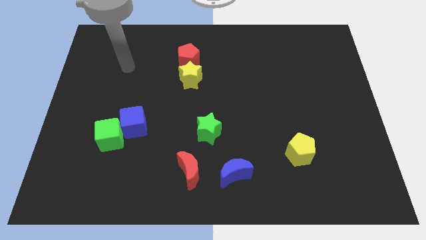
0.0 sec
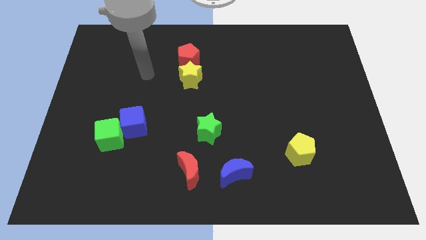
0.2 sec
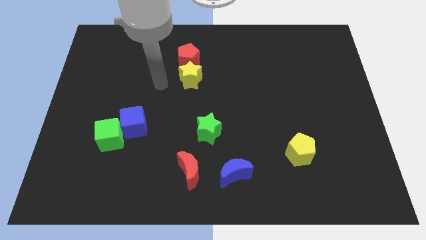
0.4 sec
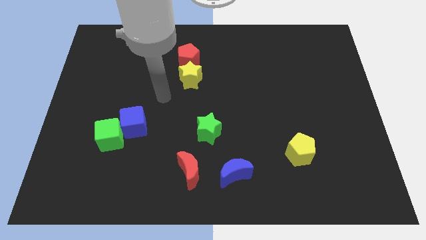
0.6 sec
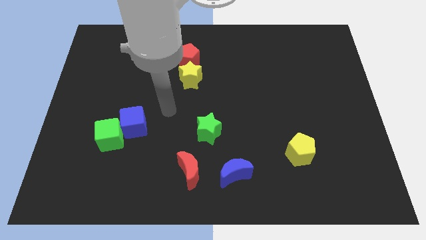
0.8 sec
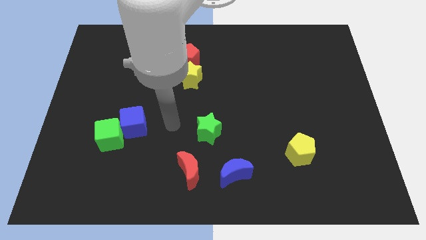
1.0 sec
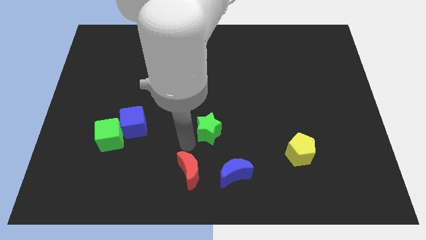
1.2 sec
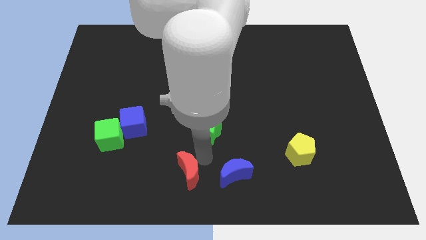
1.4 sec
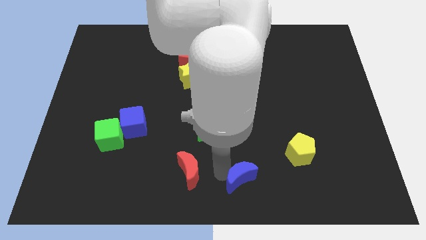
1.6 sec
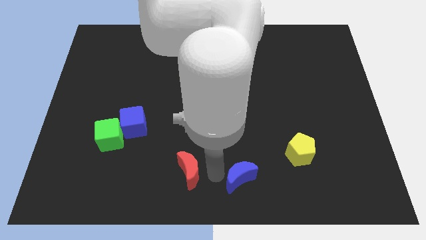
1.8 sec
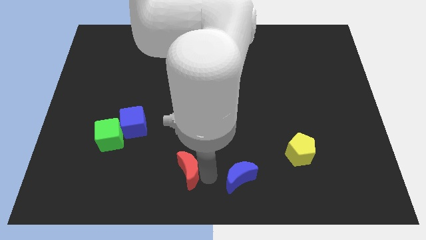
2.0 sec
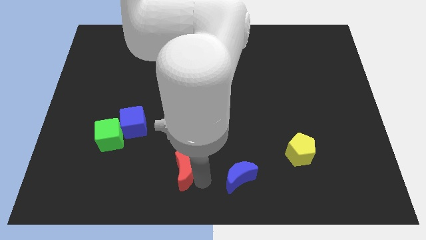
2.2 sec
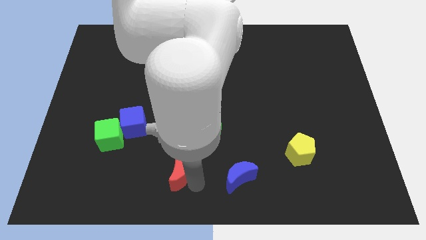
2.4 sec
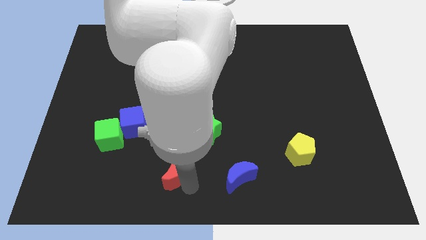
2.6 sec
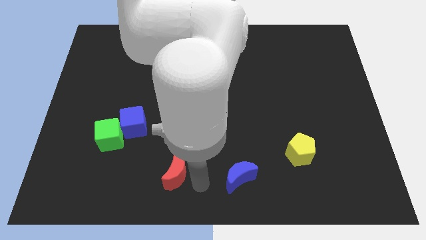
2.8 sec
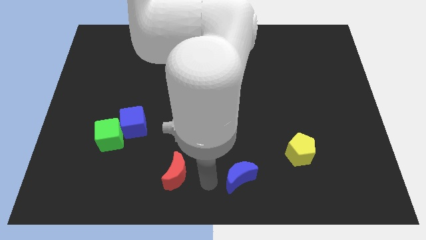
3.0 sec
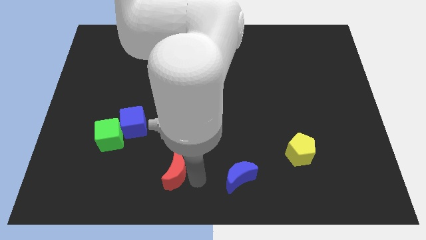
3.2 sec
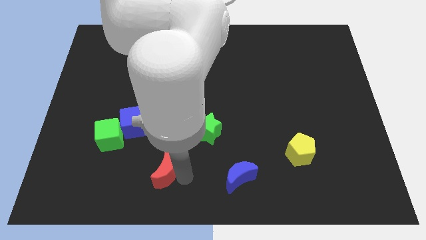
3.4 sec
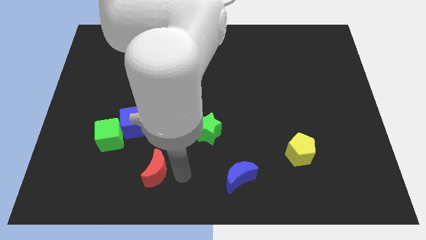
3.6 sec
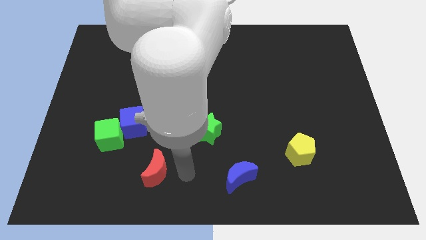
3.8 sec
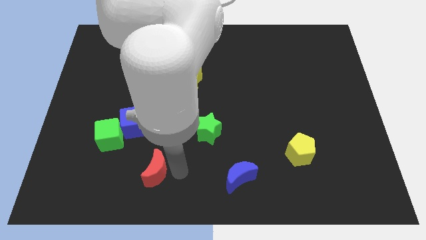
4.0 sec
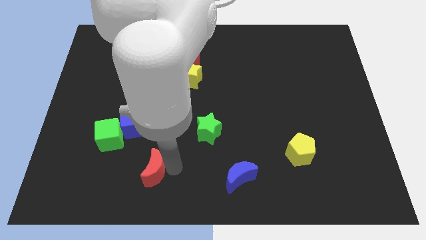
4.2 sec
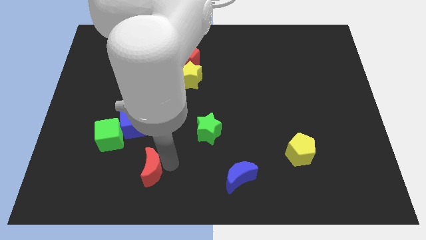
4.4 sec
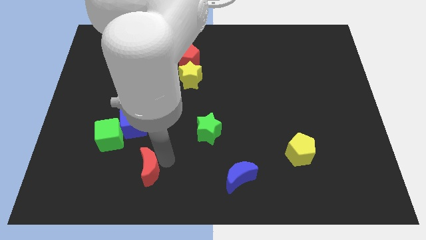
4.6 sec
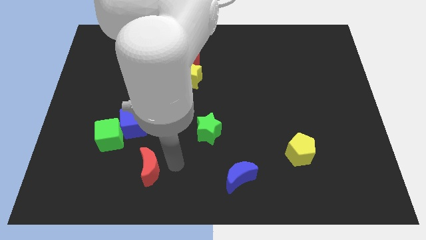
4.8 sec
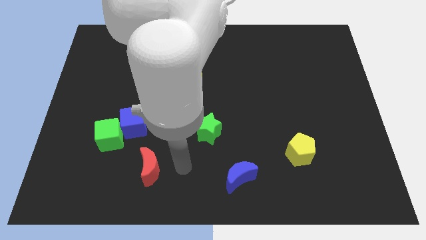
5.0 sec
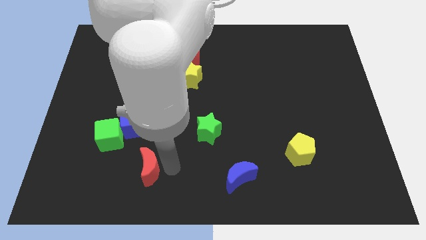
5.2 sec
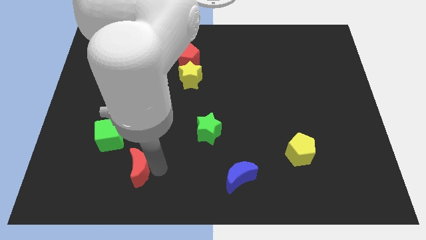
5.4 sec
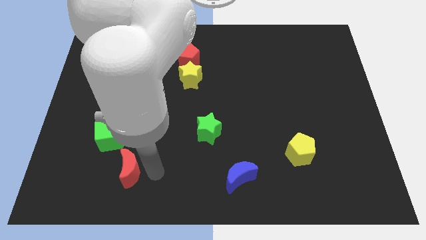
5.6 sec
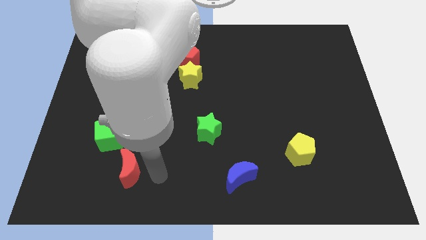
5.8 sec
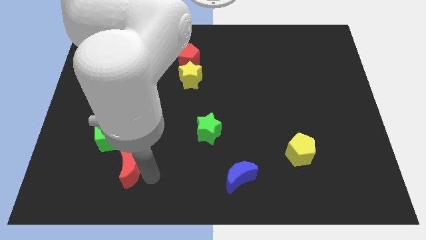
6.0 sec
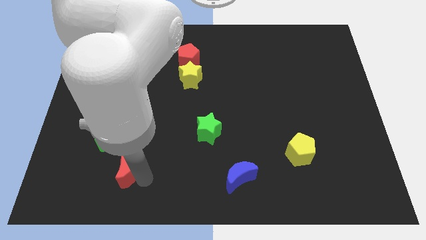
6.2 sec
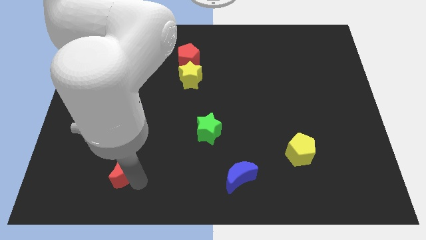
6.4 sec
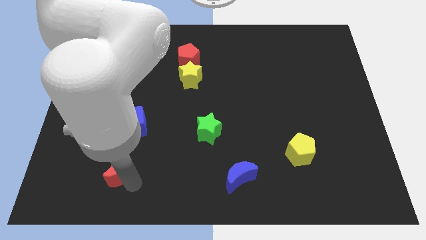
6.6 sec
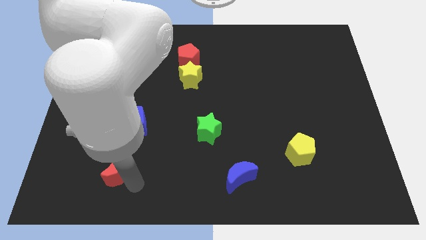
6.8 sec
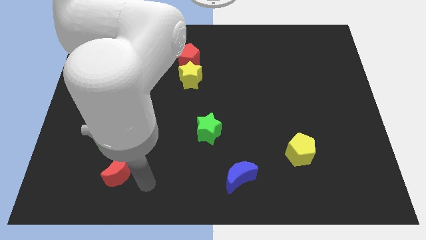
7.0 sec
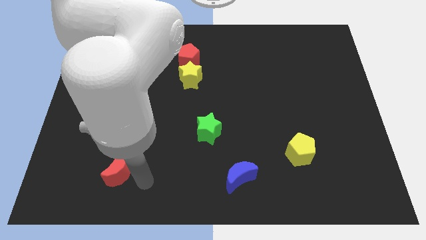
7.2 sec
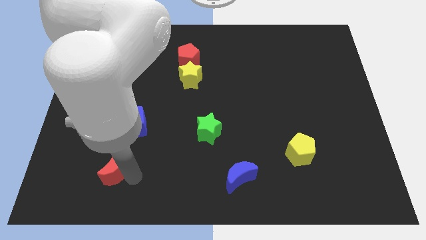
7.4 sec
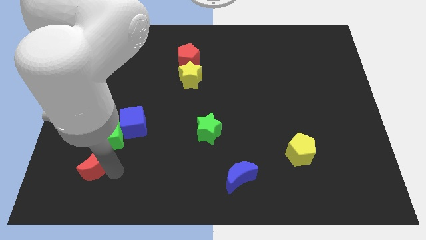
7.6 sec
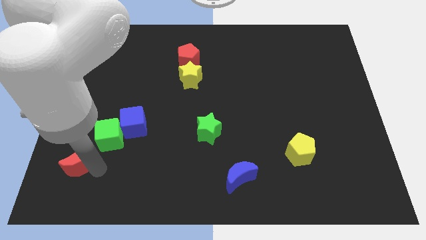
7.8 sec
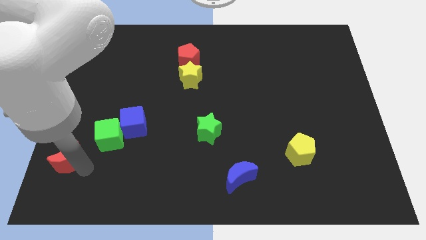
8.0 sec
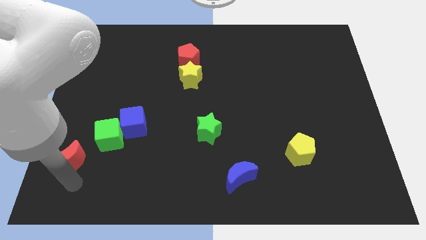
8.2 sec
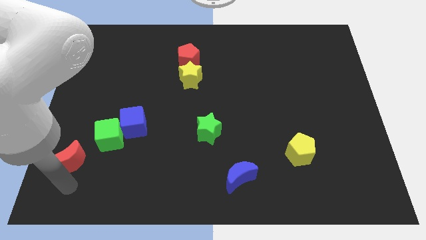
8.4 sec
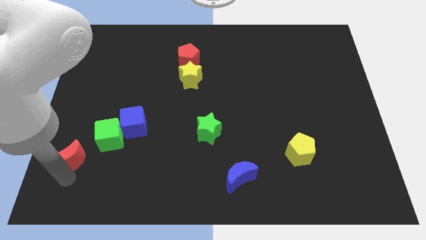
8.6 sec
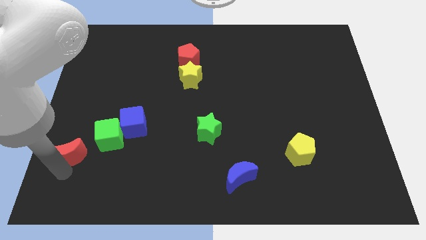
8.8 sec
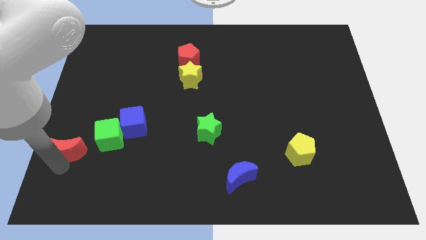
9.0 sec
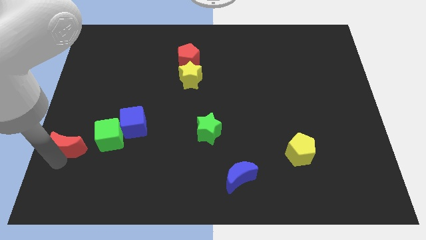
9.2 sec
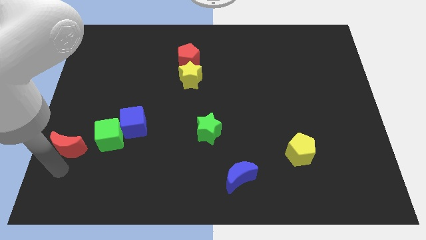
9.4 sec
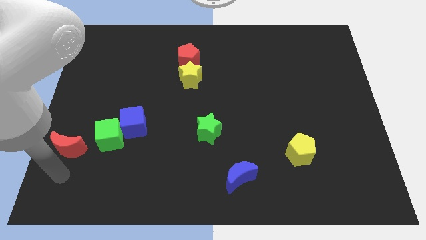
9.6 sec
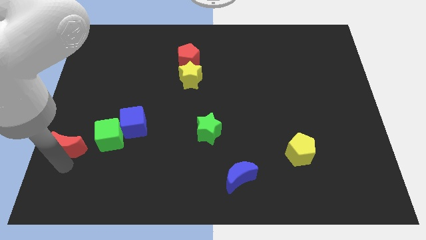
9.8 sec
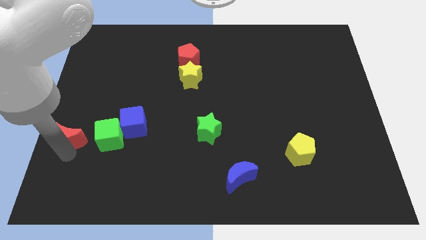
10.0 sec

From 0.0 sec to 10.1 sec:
move the red moon to the left side

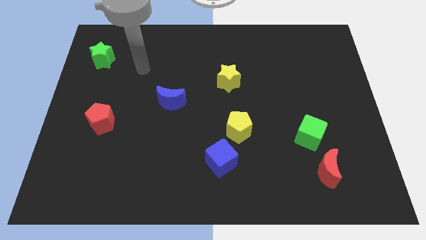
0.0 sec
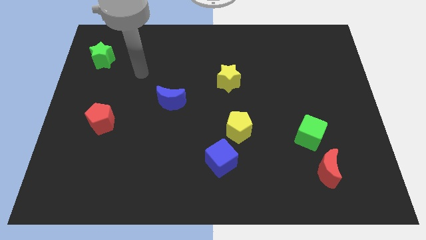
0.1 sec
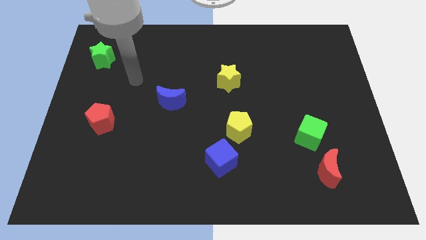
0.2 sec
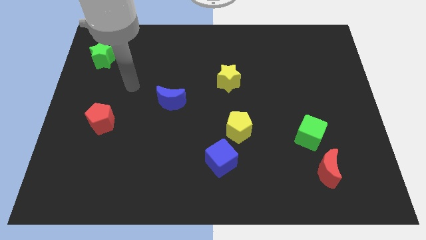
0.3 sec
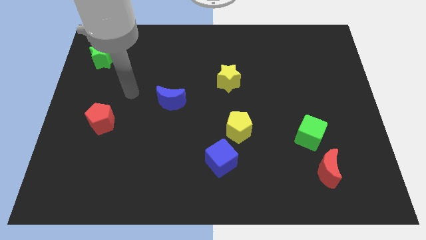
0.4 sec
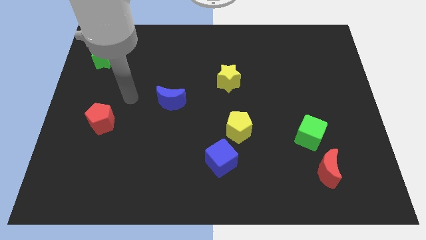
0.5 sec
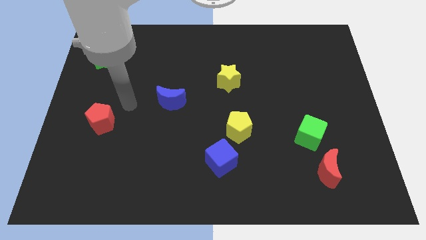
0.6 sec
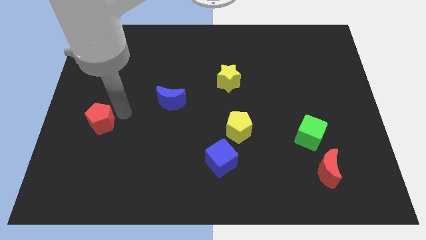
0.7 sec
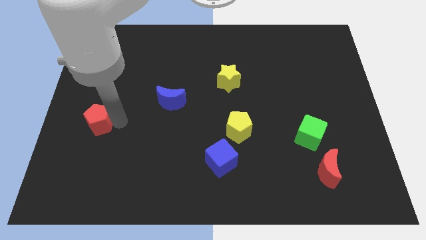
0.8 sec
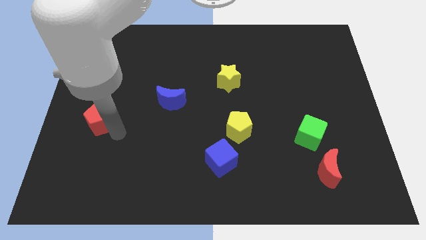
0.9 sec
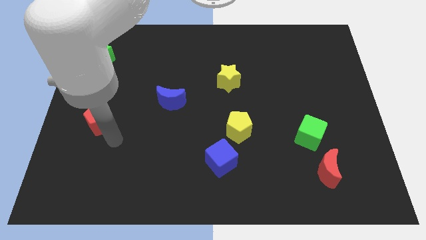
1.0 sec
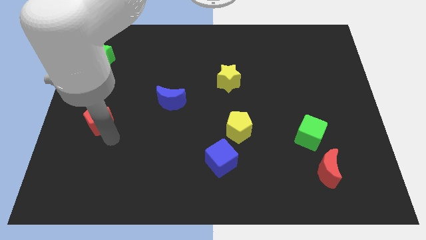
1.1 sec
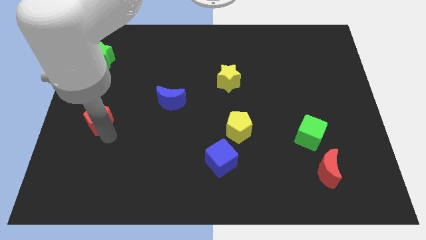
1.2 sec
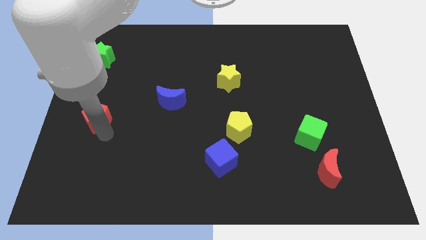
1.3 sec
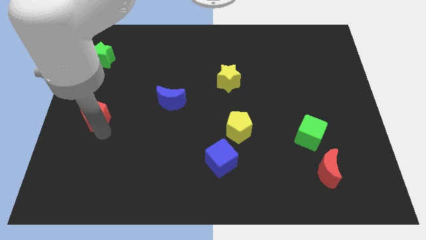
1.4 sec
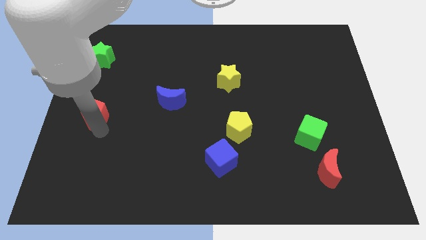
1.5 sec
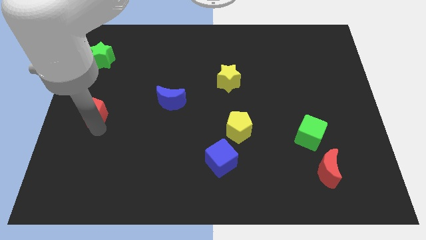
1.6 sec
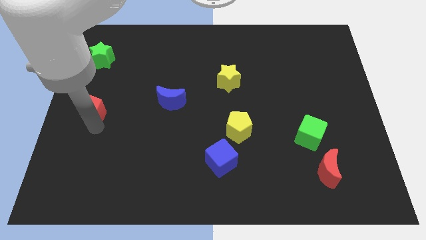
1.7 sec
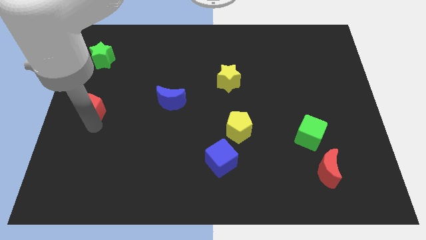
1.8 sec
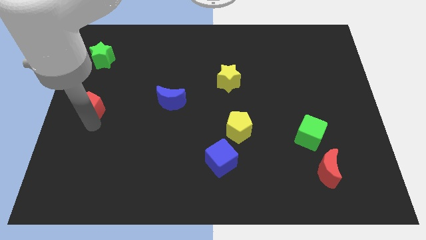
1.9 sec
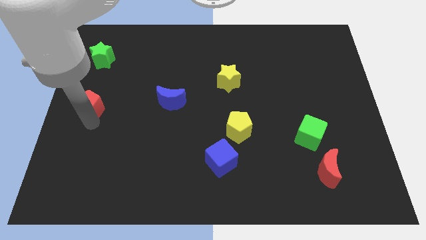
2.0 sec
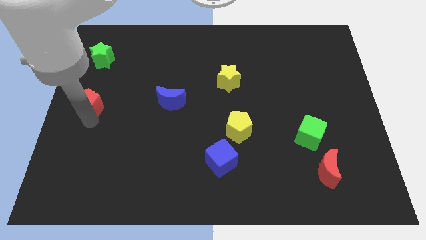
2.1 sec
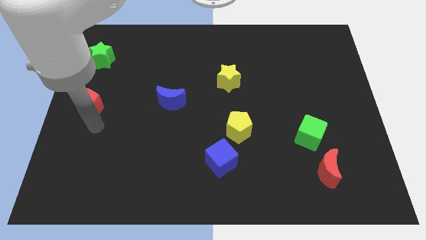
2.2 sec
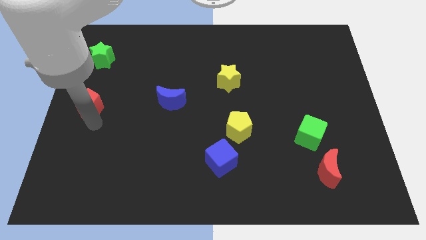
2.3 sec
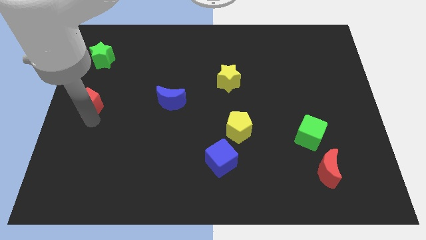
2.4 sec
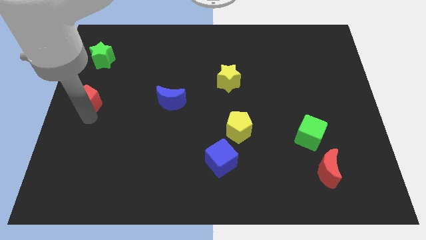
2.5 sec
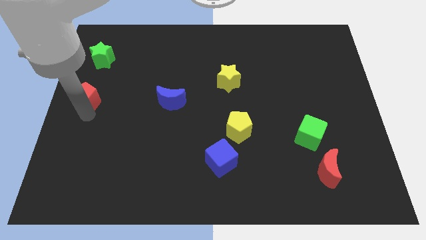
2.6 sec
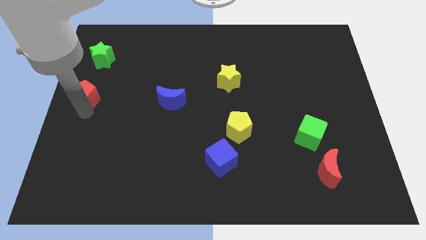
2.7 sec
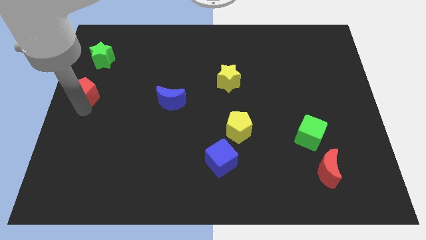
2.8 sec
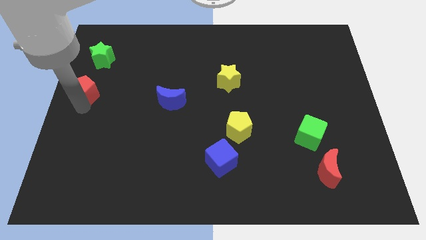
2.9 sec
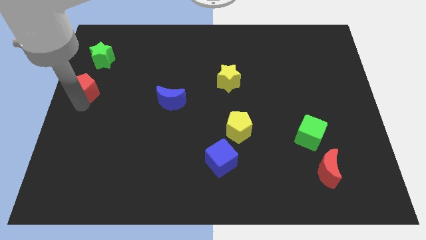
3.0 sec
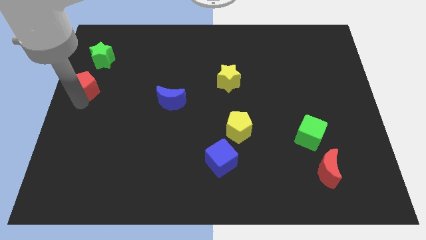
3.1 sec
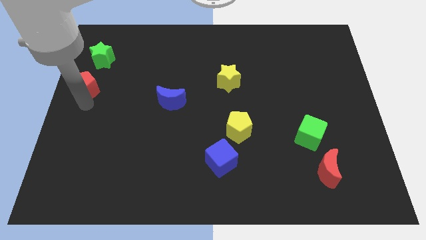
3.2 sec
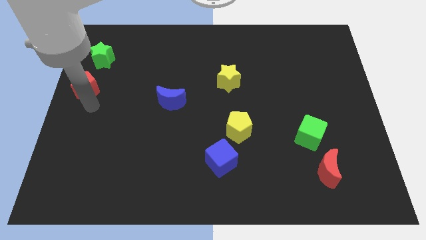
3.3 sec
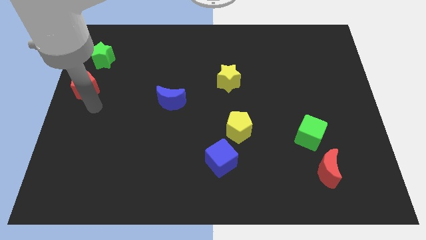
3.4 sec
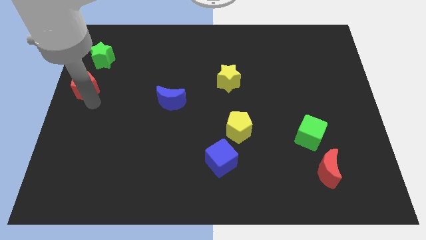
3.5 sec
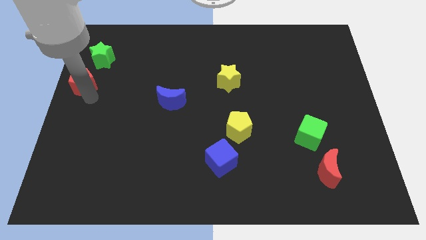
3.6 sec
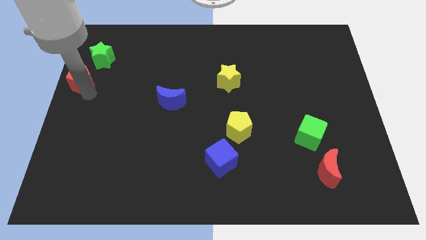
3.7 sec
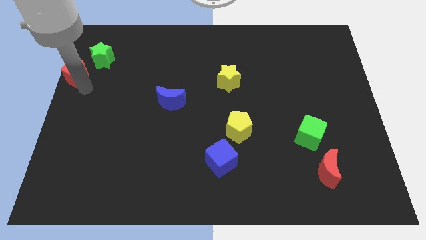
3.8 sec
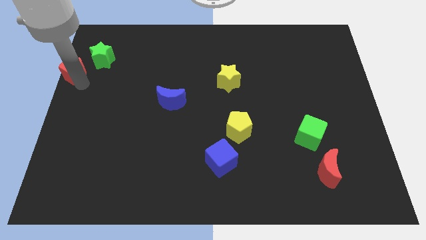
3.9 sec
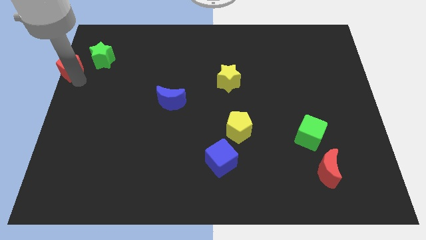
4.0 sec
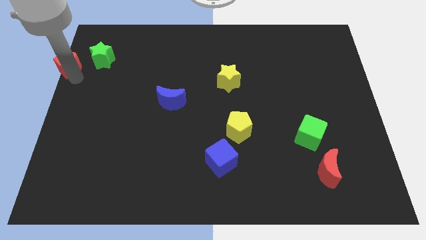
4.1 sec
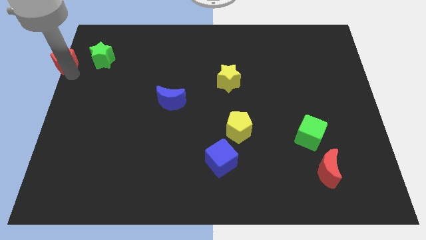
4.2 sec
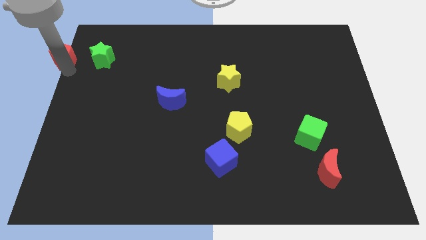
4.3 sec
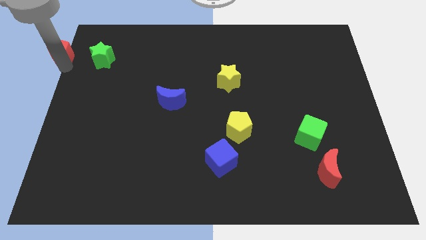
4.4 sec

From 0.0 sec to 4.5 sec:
put the red pentagon to the upper left corner
